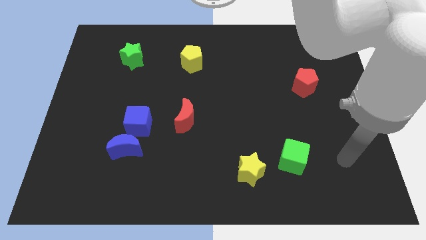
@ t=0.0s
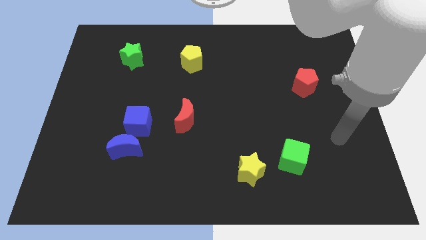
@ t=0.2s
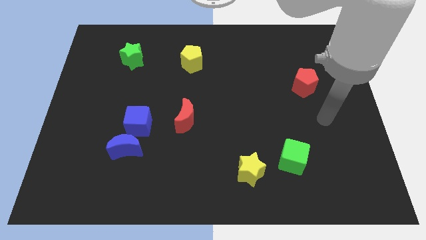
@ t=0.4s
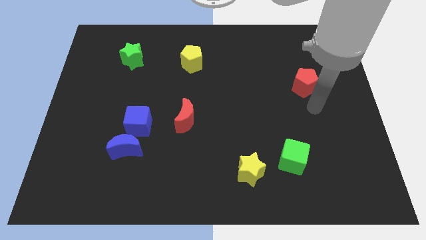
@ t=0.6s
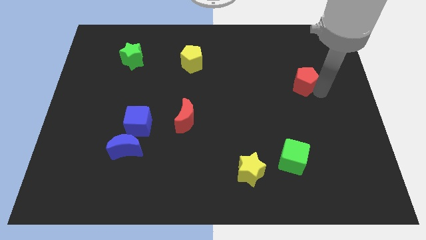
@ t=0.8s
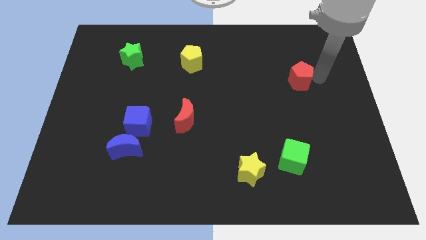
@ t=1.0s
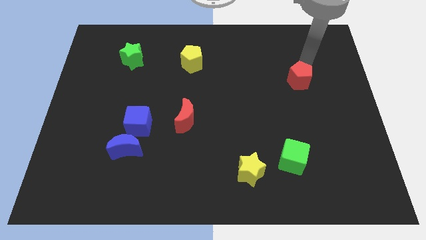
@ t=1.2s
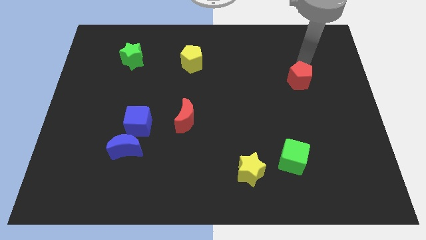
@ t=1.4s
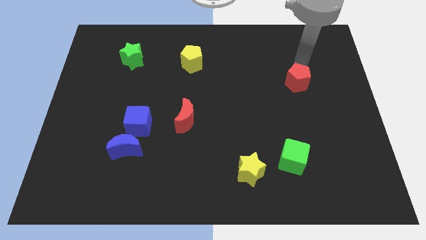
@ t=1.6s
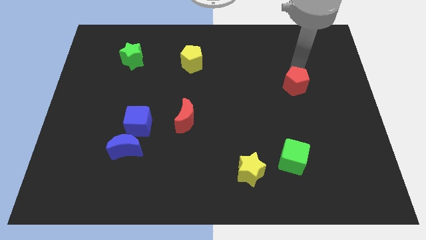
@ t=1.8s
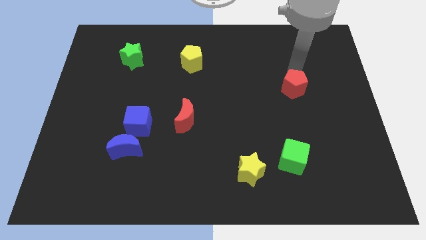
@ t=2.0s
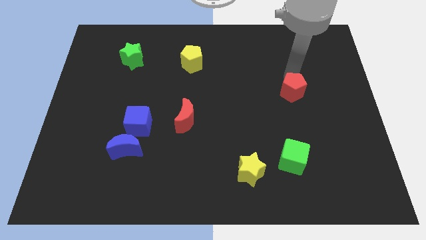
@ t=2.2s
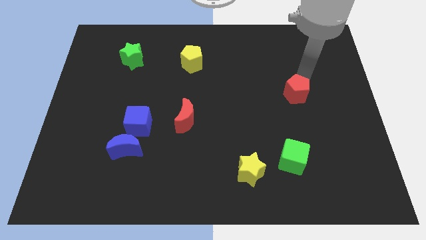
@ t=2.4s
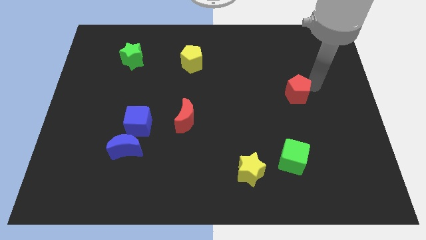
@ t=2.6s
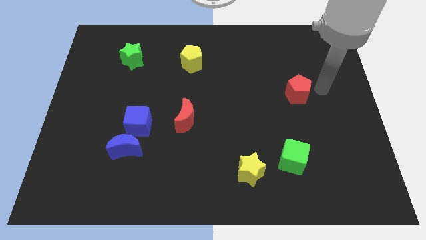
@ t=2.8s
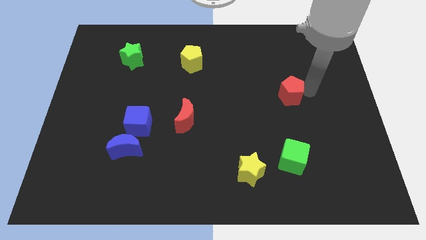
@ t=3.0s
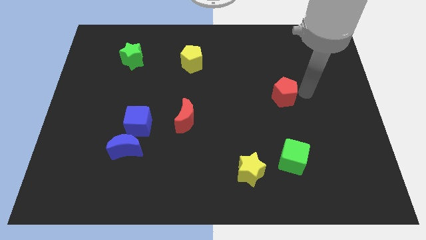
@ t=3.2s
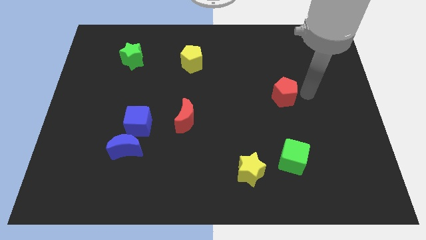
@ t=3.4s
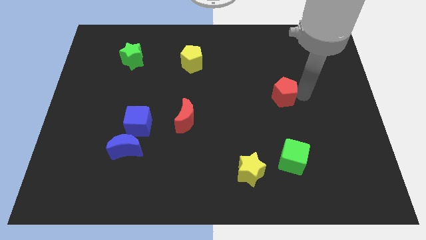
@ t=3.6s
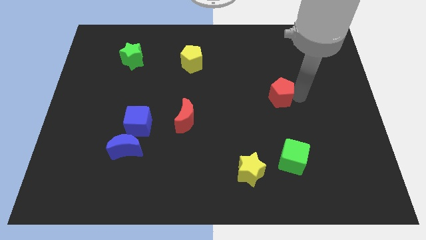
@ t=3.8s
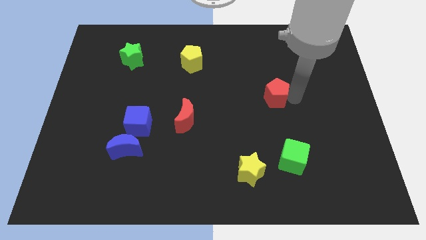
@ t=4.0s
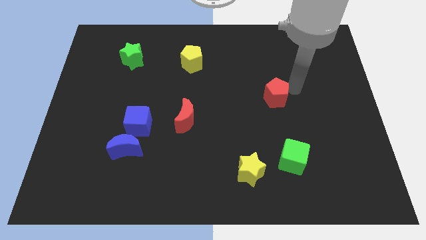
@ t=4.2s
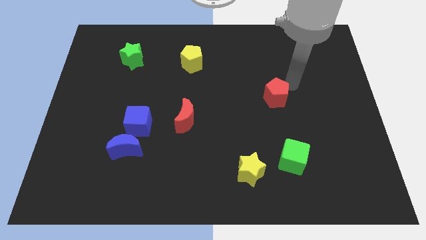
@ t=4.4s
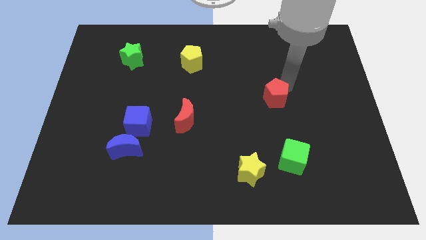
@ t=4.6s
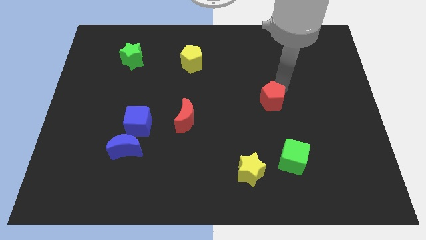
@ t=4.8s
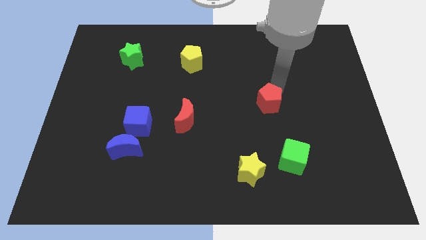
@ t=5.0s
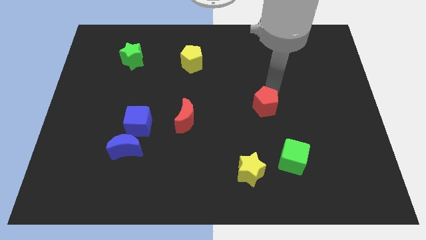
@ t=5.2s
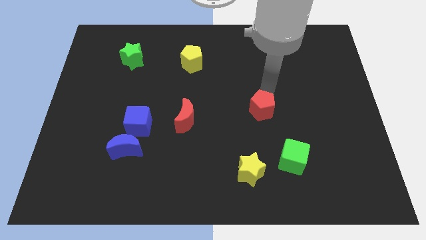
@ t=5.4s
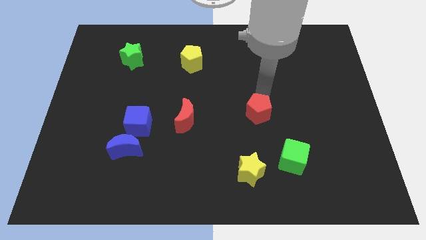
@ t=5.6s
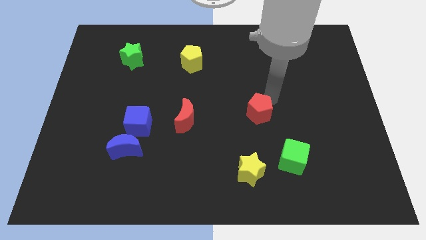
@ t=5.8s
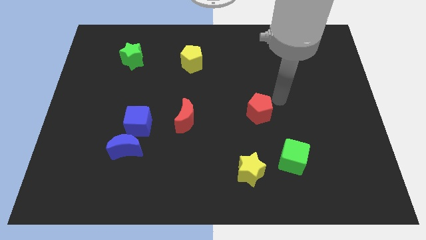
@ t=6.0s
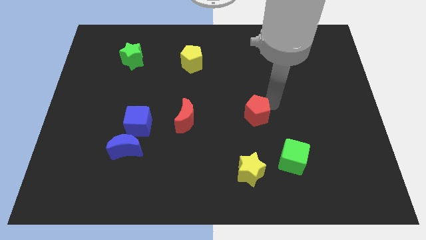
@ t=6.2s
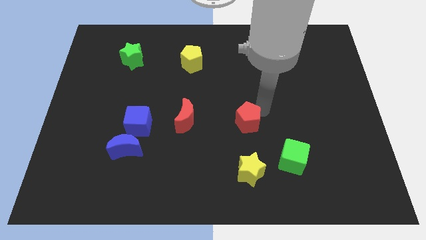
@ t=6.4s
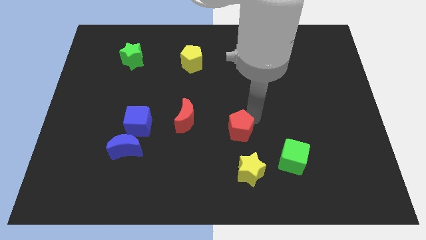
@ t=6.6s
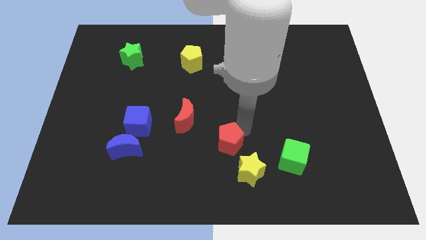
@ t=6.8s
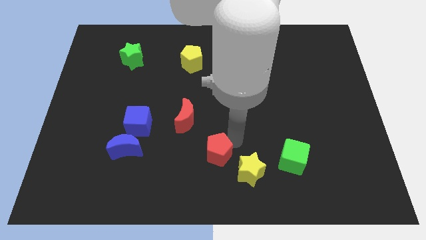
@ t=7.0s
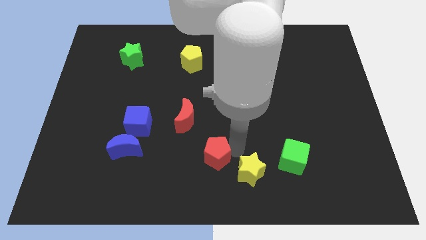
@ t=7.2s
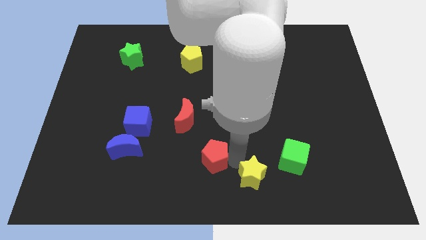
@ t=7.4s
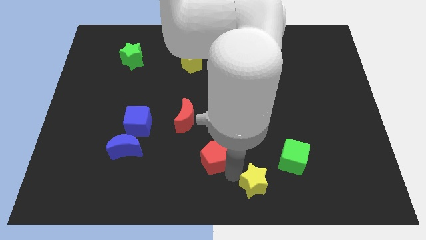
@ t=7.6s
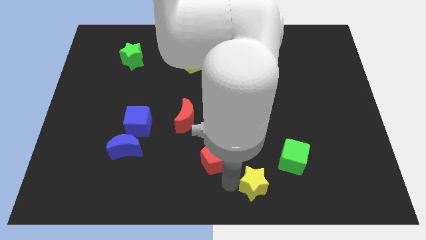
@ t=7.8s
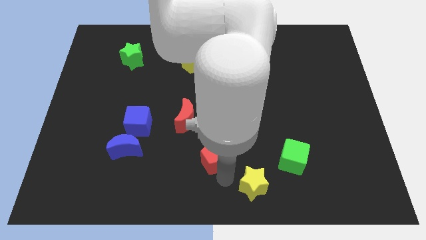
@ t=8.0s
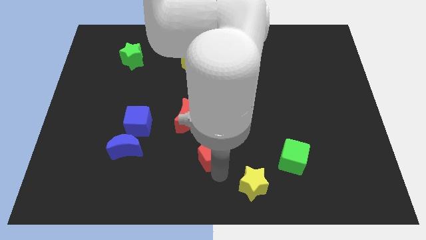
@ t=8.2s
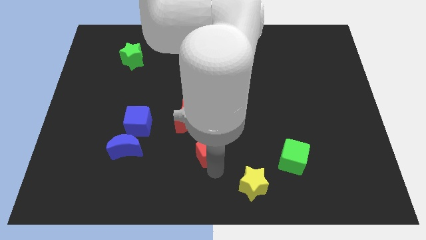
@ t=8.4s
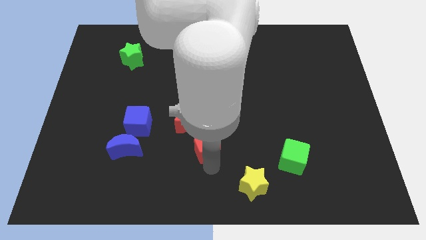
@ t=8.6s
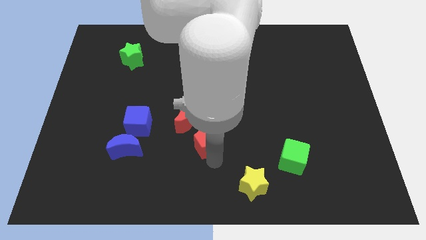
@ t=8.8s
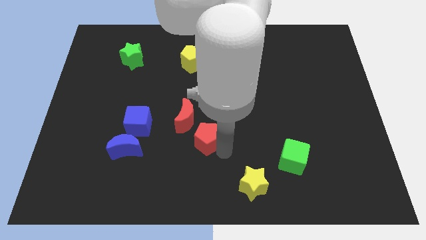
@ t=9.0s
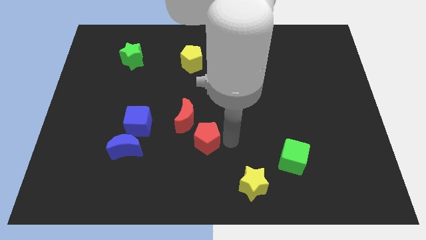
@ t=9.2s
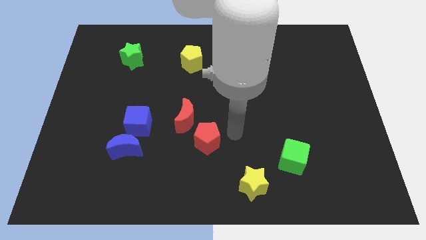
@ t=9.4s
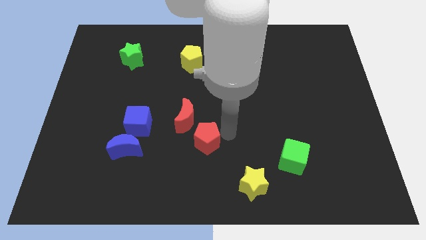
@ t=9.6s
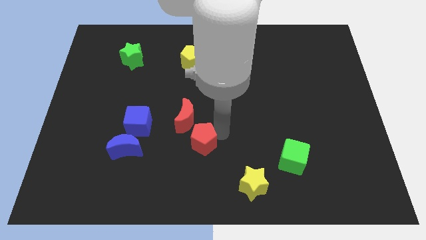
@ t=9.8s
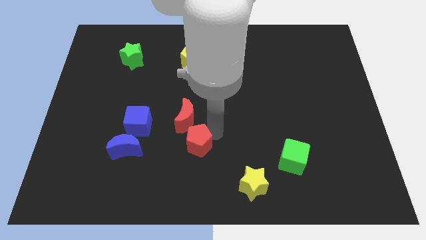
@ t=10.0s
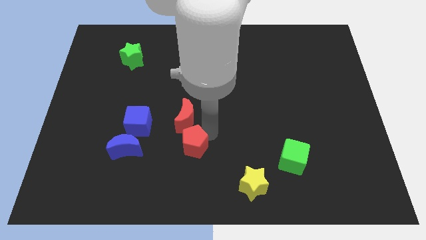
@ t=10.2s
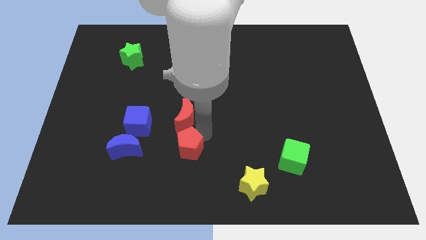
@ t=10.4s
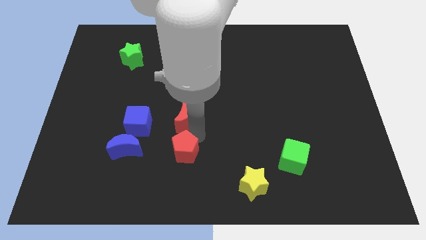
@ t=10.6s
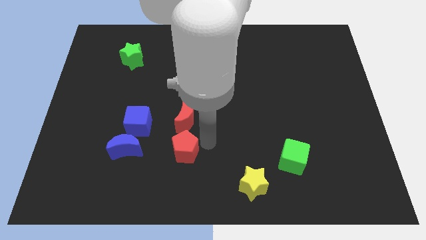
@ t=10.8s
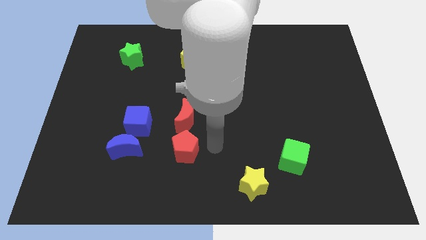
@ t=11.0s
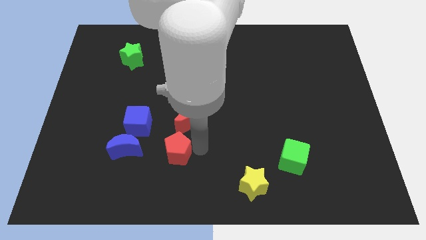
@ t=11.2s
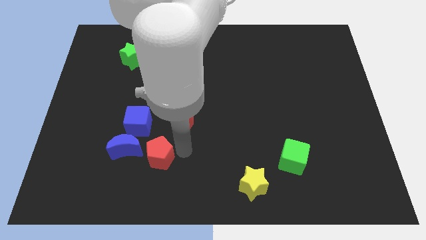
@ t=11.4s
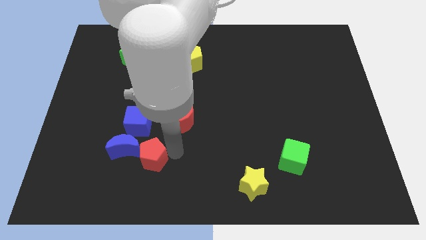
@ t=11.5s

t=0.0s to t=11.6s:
move the red pentagon below the blue cube

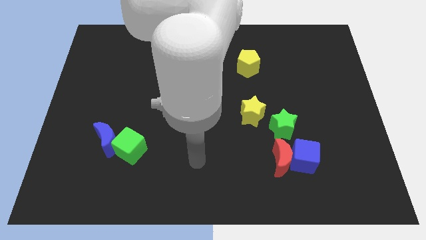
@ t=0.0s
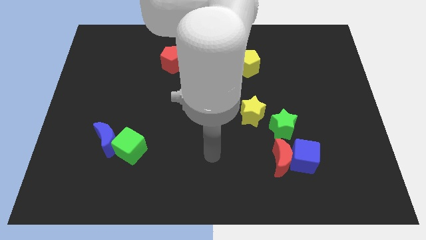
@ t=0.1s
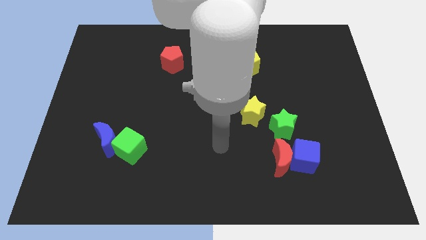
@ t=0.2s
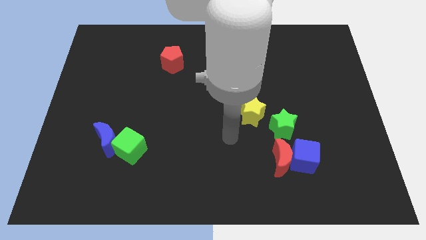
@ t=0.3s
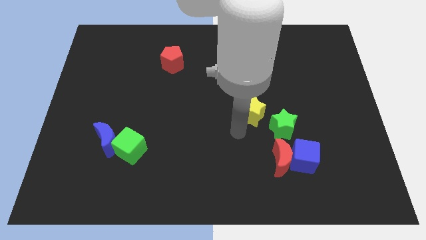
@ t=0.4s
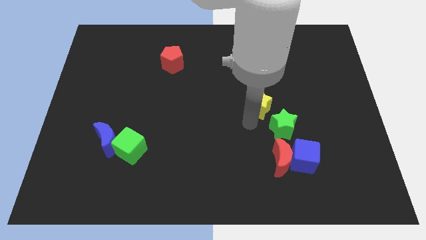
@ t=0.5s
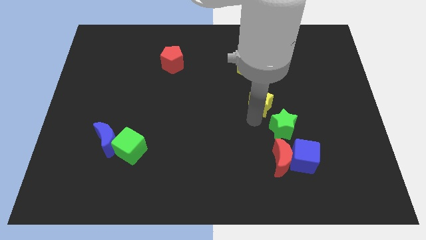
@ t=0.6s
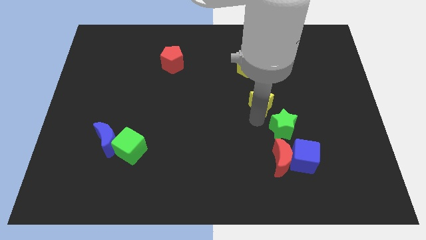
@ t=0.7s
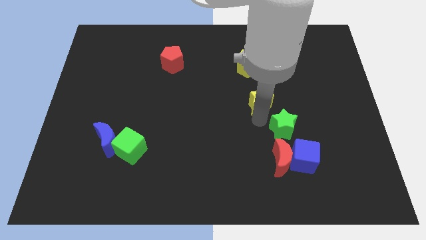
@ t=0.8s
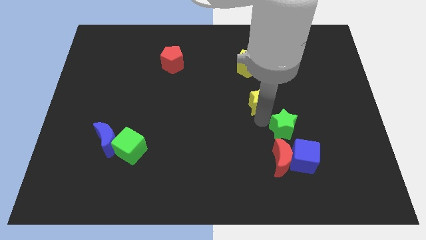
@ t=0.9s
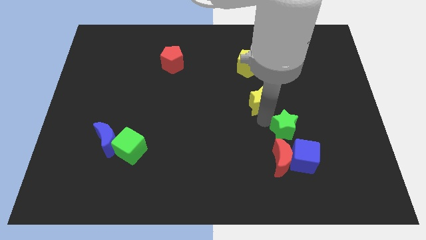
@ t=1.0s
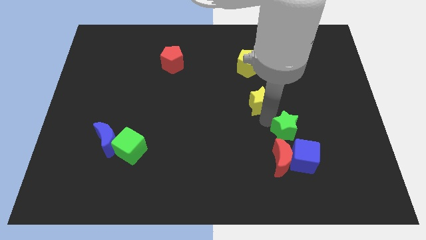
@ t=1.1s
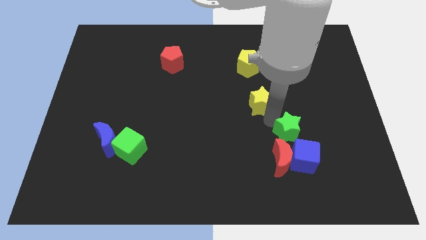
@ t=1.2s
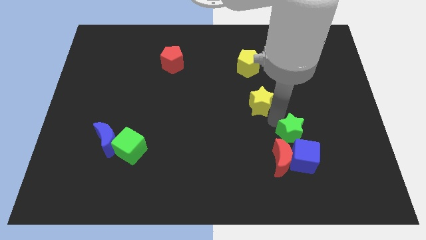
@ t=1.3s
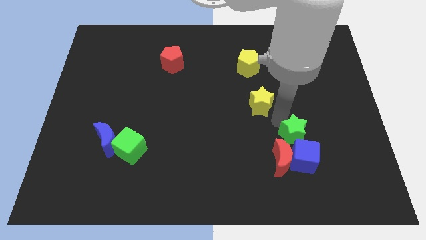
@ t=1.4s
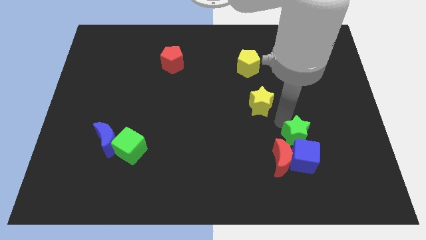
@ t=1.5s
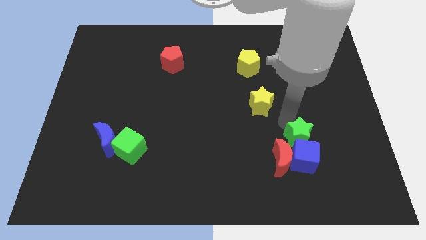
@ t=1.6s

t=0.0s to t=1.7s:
slide the green star to the top right of the blue cube
